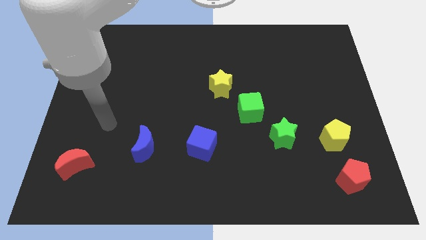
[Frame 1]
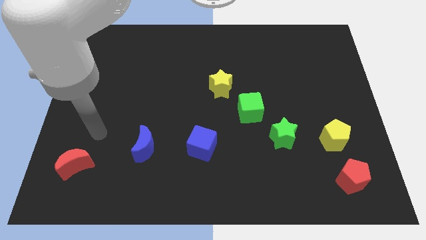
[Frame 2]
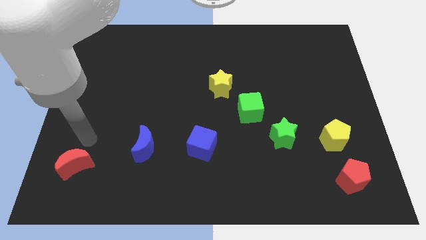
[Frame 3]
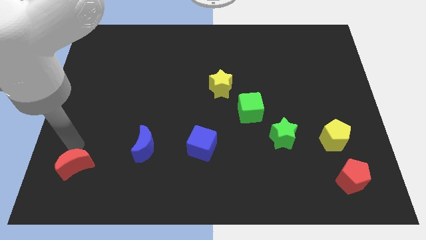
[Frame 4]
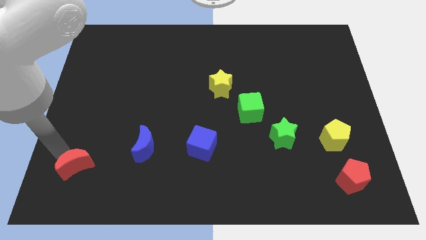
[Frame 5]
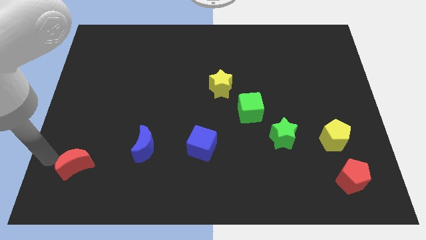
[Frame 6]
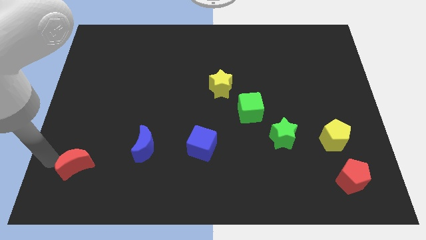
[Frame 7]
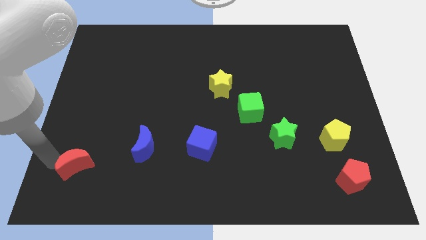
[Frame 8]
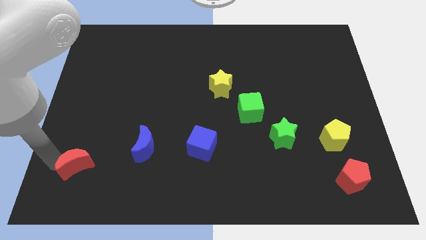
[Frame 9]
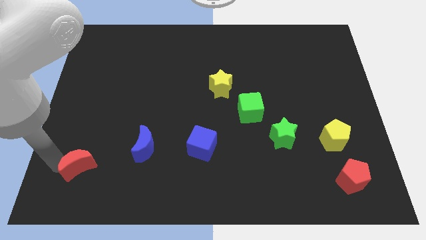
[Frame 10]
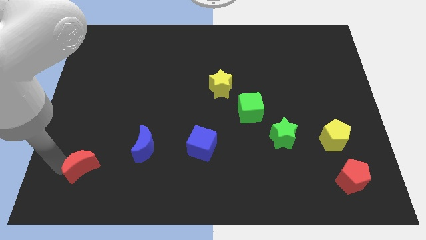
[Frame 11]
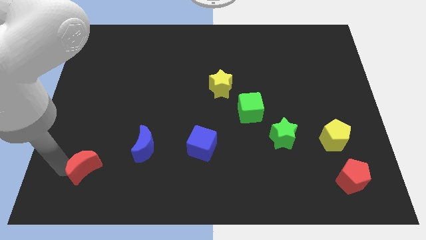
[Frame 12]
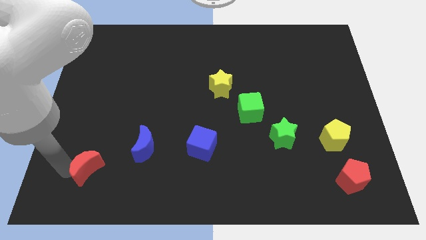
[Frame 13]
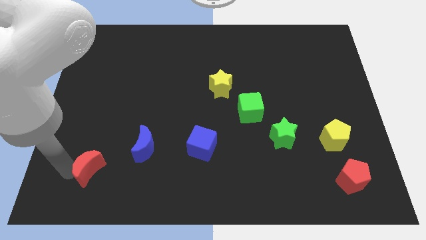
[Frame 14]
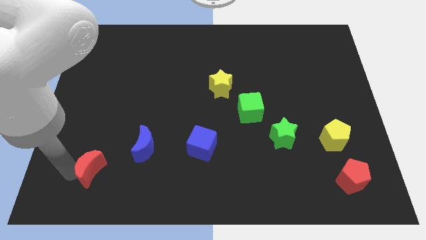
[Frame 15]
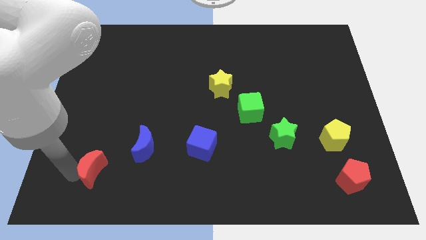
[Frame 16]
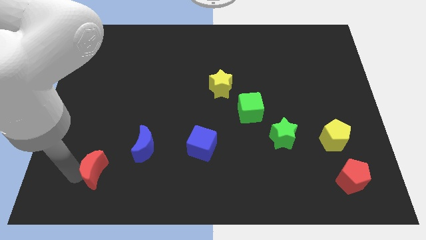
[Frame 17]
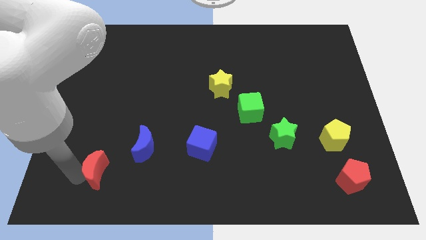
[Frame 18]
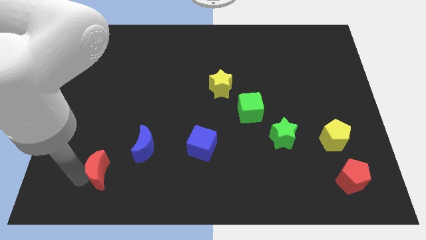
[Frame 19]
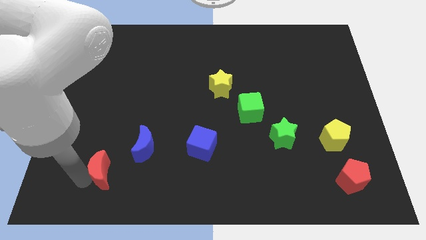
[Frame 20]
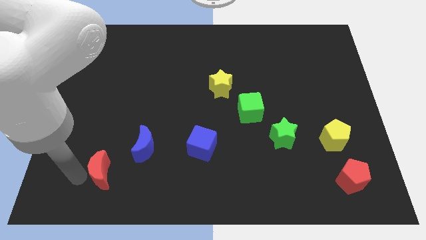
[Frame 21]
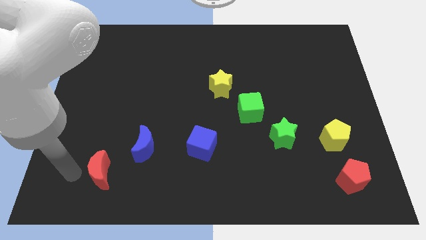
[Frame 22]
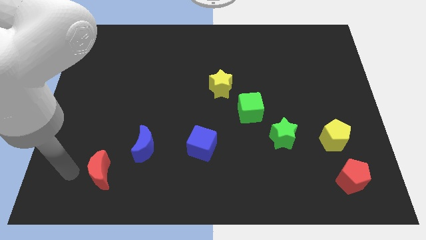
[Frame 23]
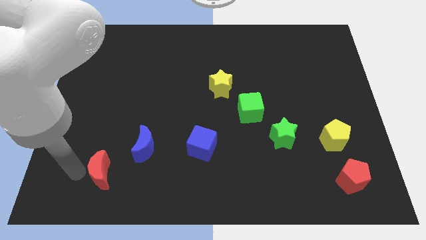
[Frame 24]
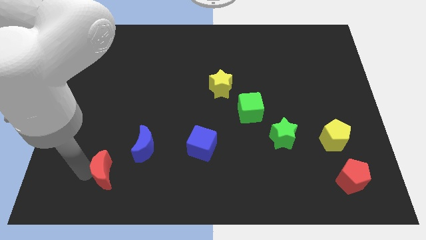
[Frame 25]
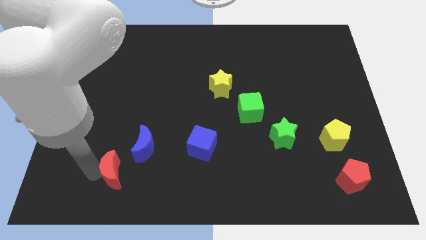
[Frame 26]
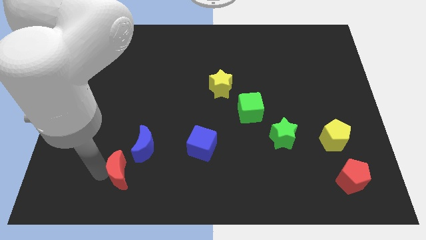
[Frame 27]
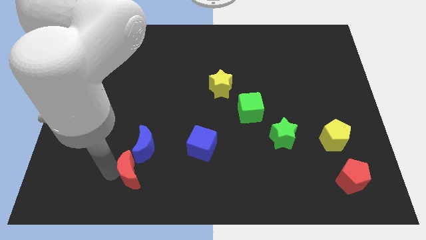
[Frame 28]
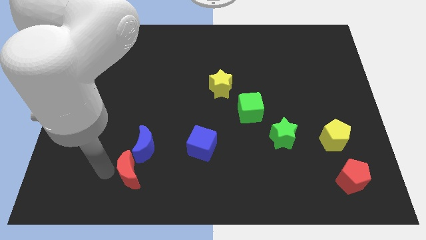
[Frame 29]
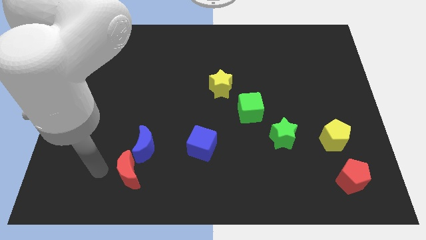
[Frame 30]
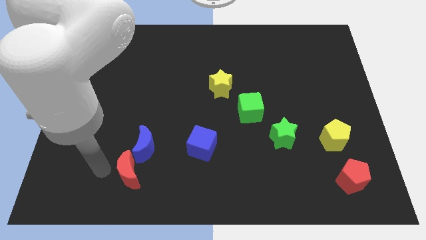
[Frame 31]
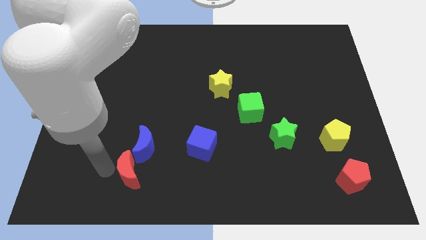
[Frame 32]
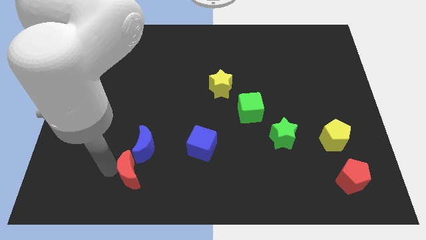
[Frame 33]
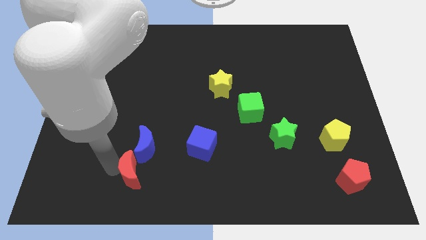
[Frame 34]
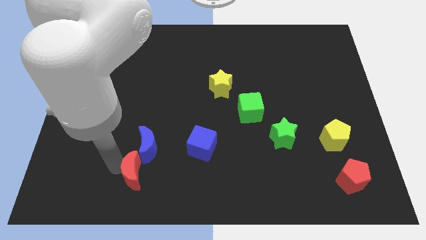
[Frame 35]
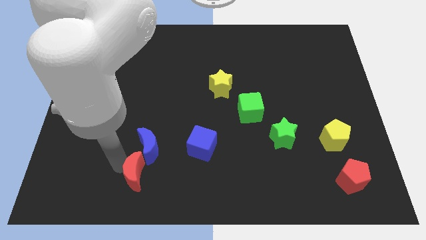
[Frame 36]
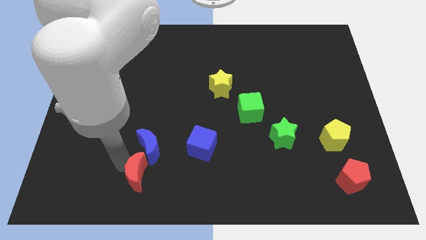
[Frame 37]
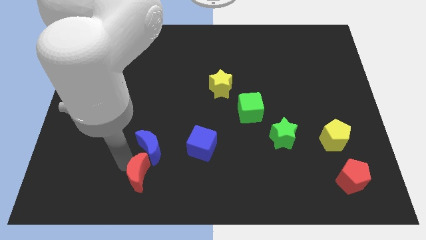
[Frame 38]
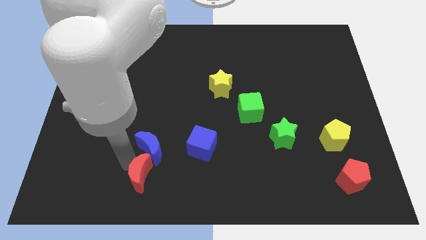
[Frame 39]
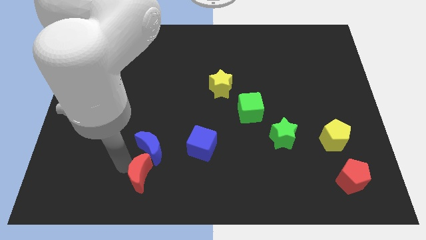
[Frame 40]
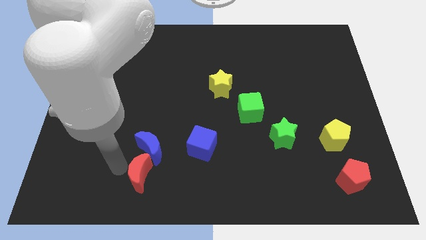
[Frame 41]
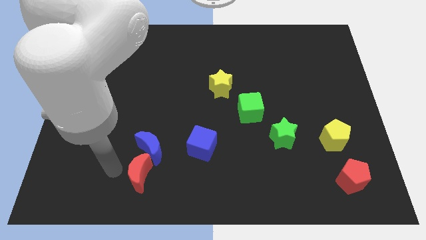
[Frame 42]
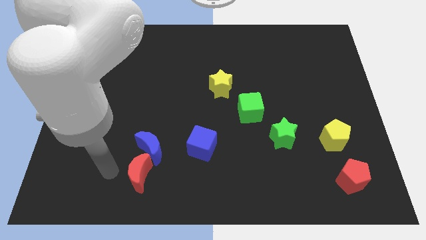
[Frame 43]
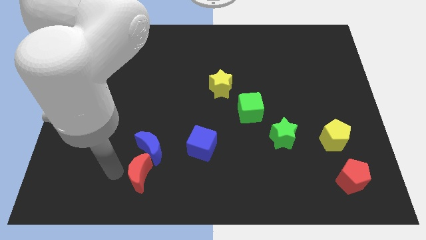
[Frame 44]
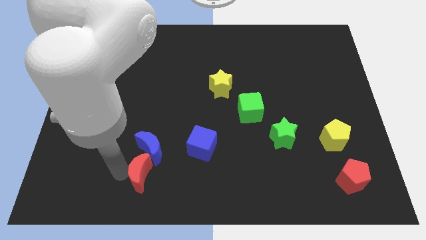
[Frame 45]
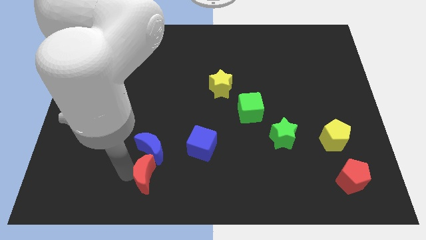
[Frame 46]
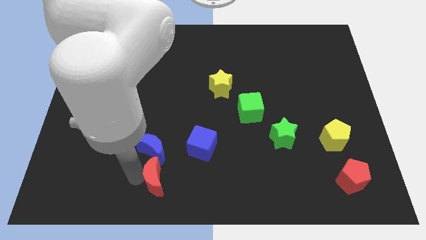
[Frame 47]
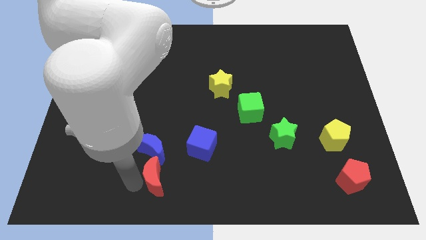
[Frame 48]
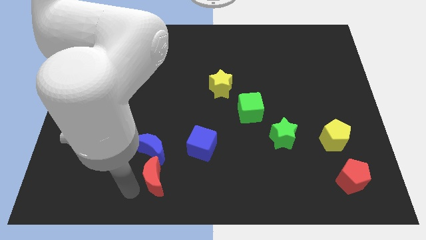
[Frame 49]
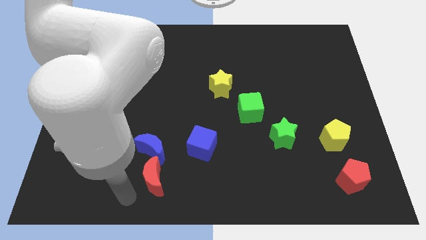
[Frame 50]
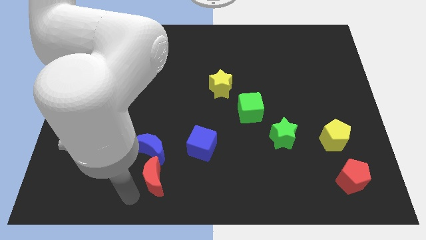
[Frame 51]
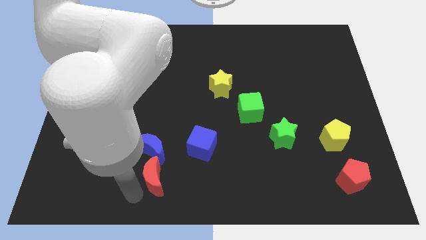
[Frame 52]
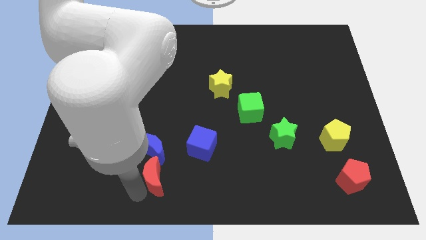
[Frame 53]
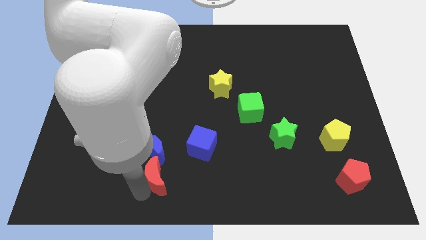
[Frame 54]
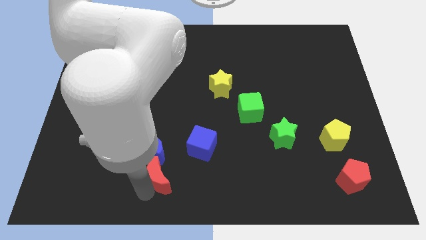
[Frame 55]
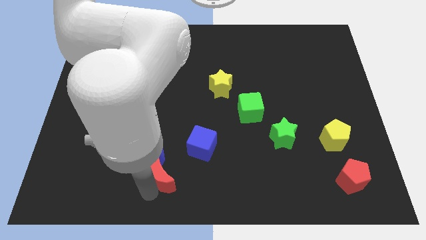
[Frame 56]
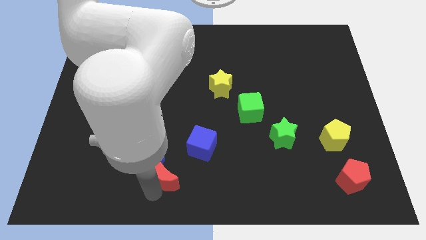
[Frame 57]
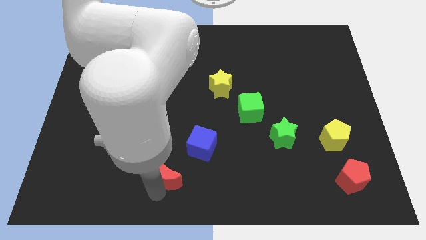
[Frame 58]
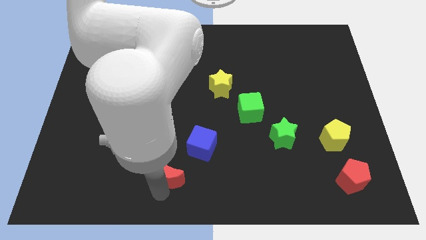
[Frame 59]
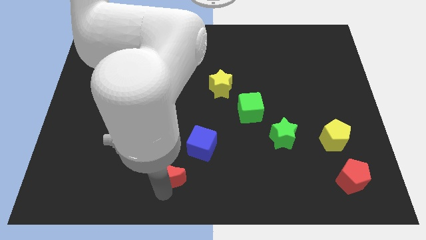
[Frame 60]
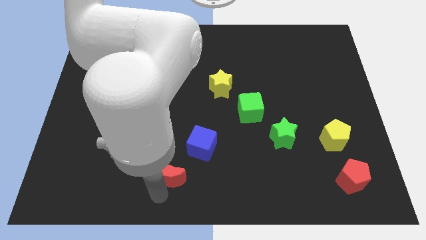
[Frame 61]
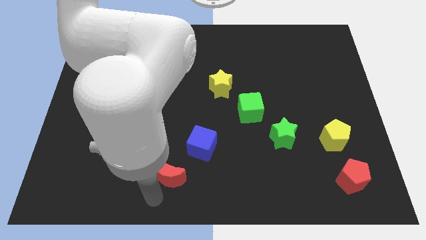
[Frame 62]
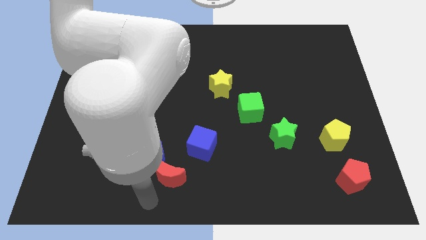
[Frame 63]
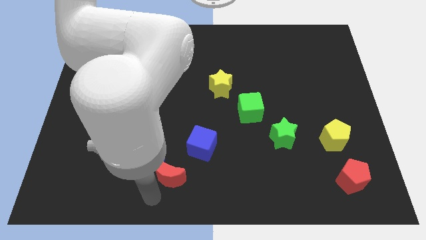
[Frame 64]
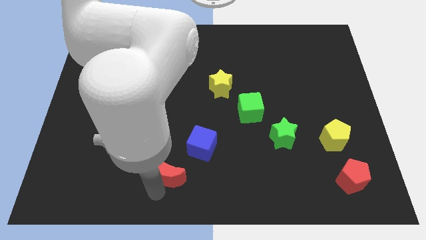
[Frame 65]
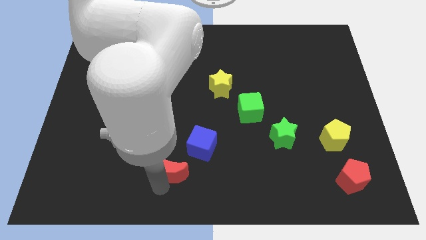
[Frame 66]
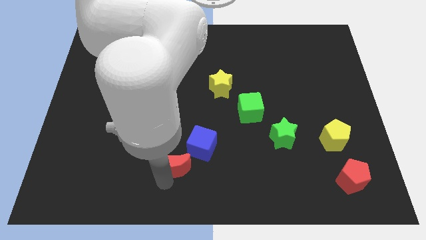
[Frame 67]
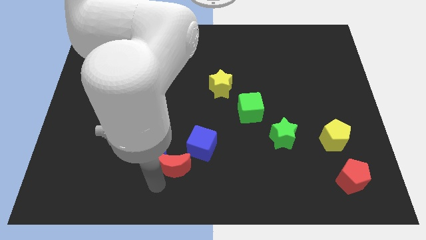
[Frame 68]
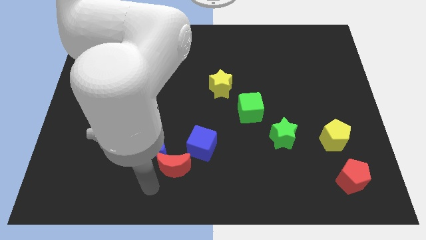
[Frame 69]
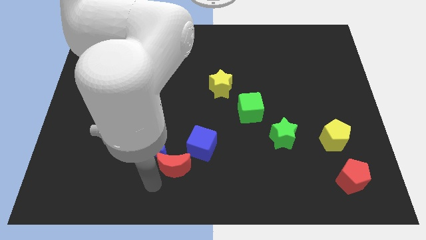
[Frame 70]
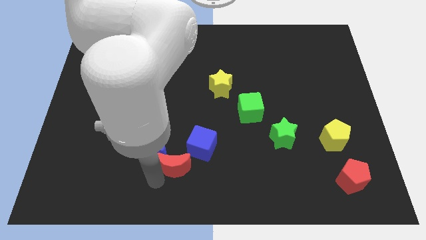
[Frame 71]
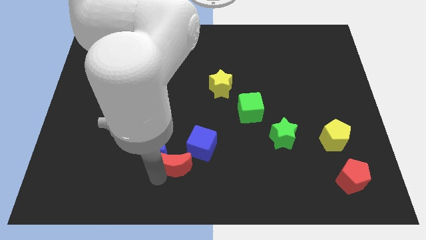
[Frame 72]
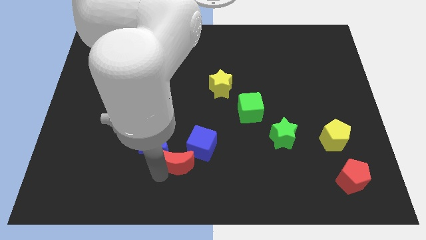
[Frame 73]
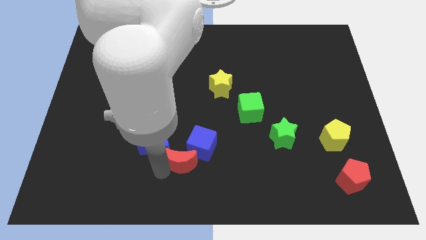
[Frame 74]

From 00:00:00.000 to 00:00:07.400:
put the red moon towards the blue cube
